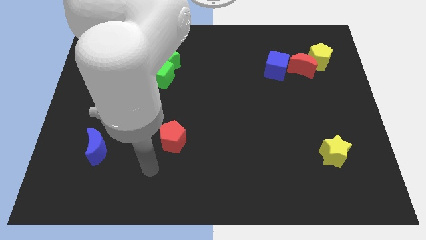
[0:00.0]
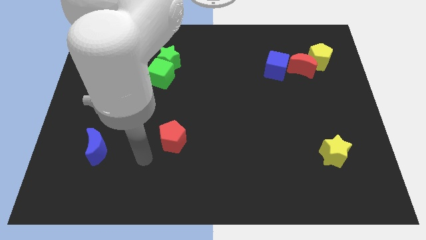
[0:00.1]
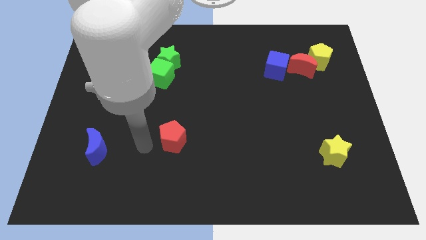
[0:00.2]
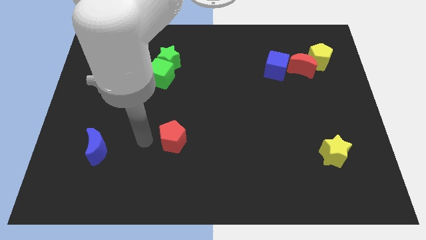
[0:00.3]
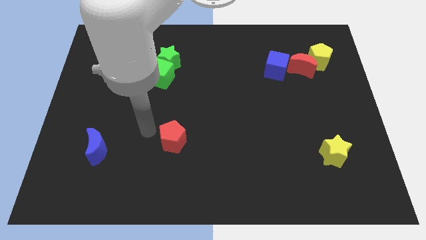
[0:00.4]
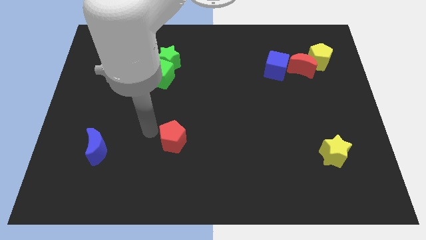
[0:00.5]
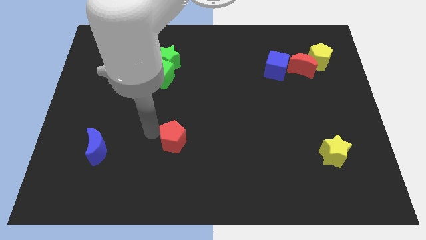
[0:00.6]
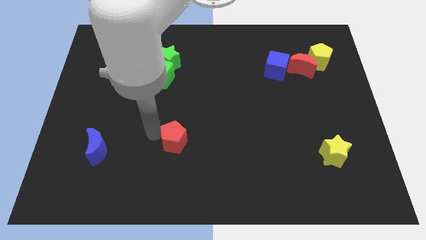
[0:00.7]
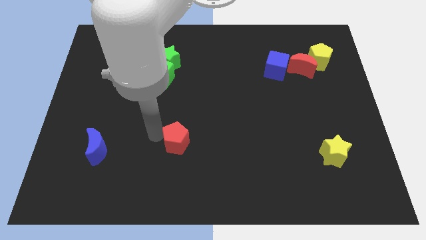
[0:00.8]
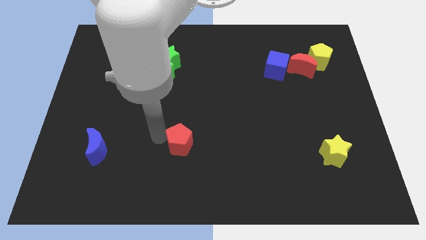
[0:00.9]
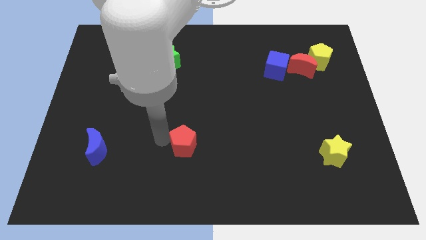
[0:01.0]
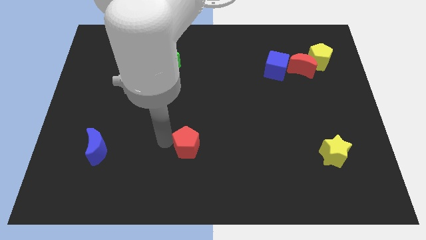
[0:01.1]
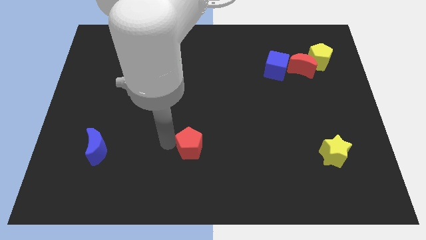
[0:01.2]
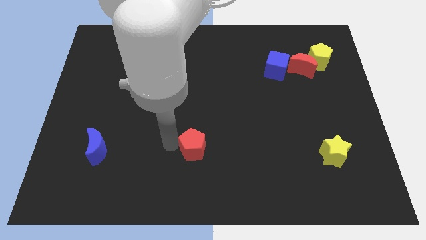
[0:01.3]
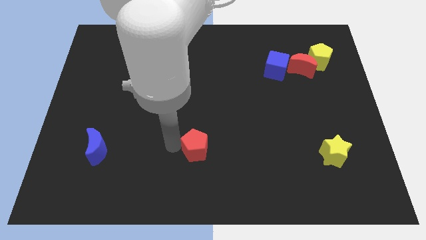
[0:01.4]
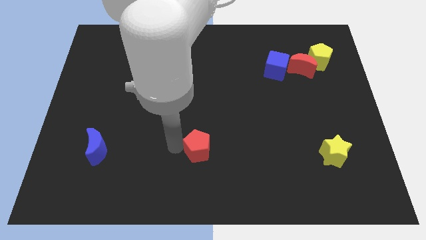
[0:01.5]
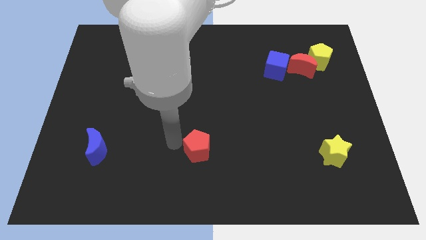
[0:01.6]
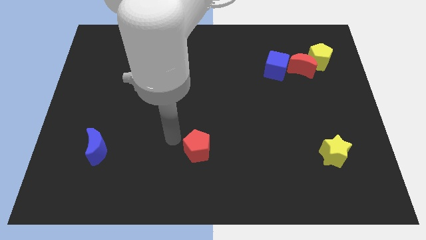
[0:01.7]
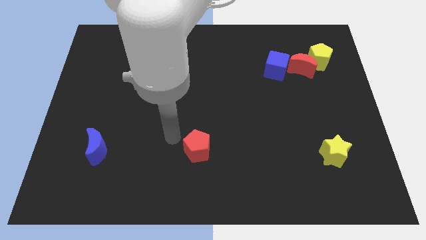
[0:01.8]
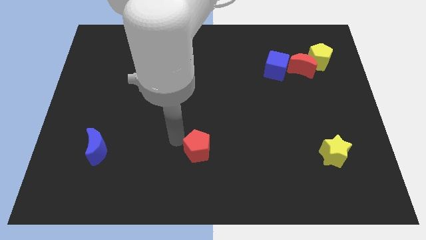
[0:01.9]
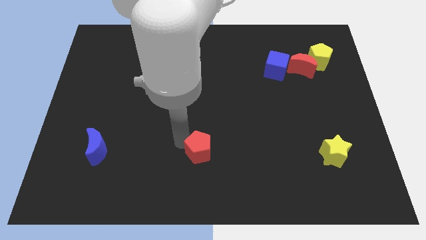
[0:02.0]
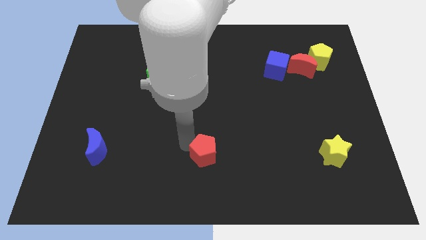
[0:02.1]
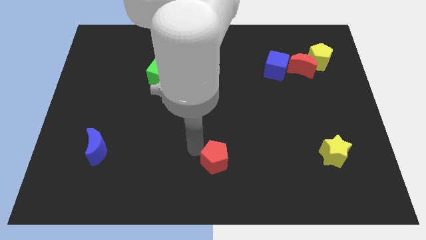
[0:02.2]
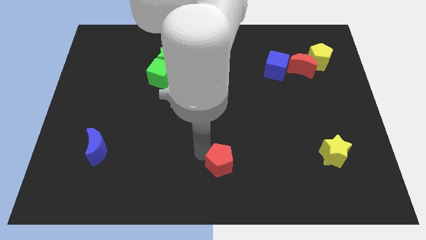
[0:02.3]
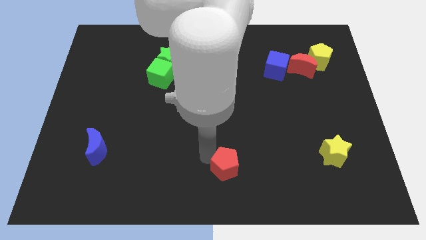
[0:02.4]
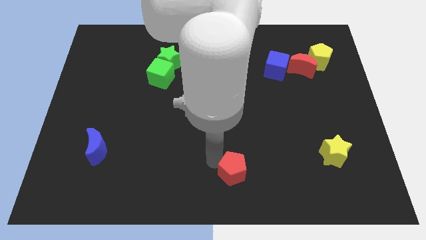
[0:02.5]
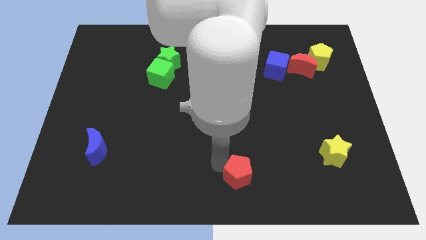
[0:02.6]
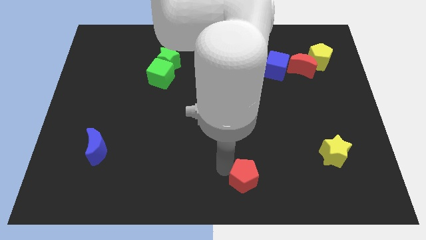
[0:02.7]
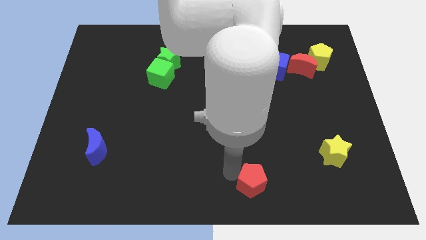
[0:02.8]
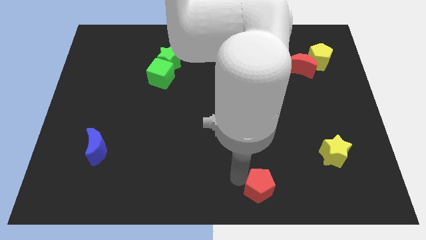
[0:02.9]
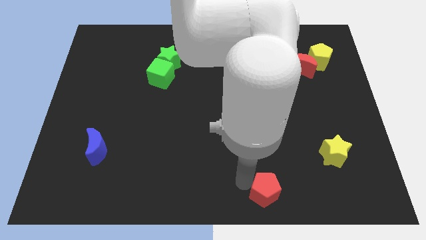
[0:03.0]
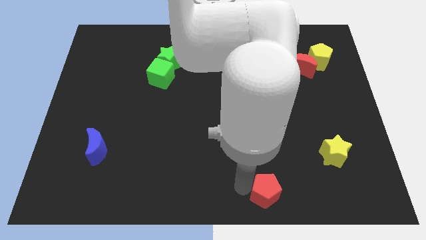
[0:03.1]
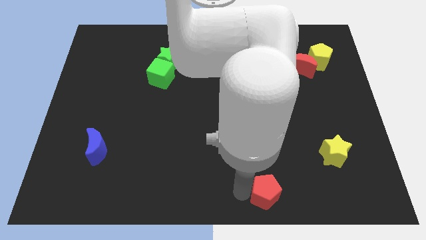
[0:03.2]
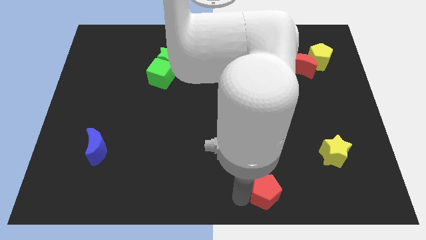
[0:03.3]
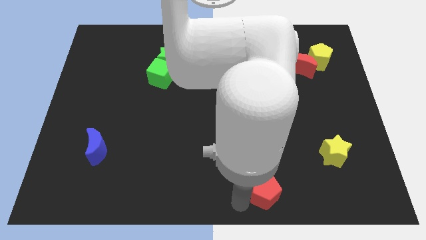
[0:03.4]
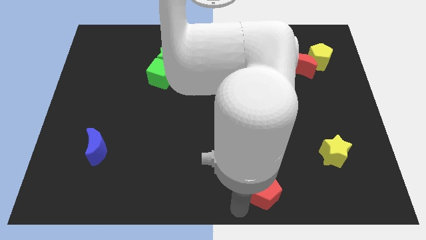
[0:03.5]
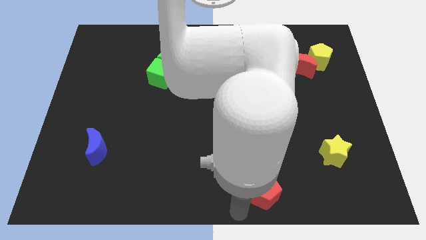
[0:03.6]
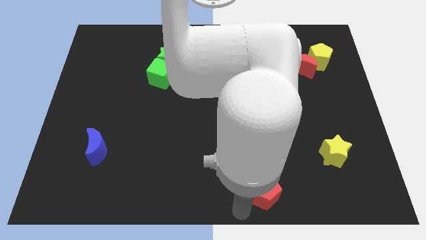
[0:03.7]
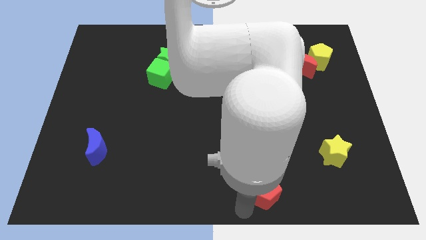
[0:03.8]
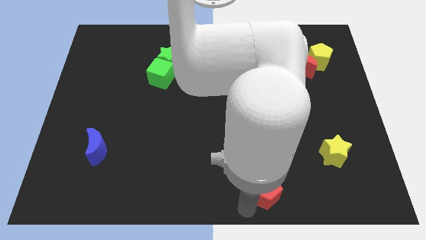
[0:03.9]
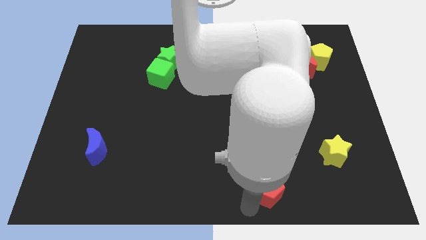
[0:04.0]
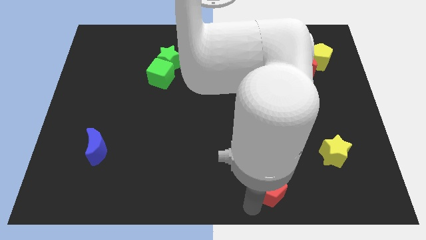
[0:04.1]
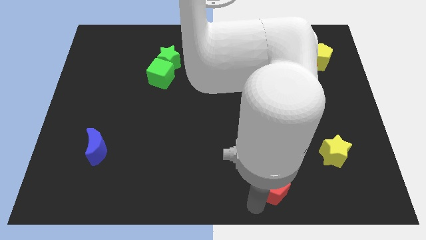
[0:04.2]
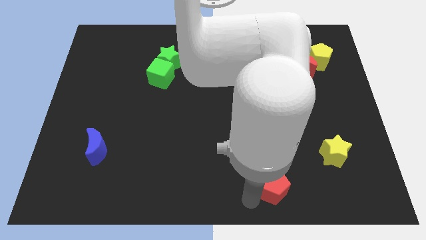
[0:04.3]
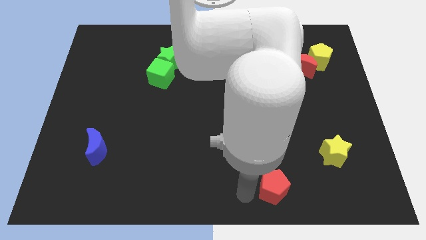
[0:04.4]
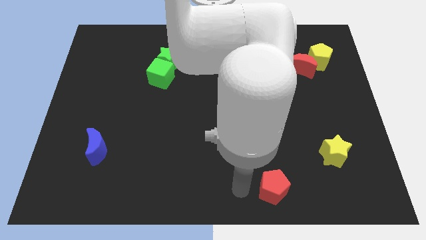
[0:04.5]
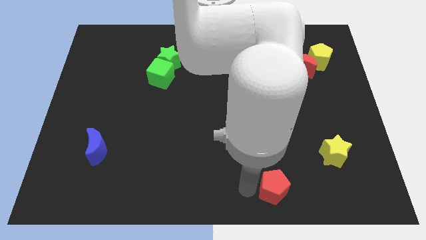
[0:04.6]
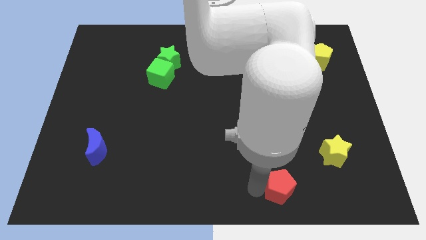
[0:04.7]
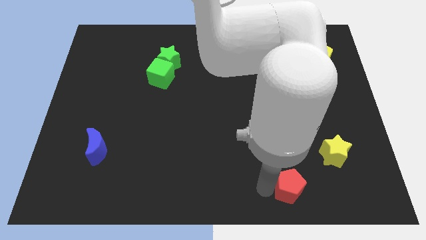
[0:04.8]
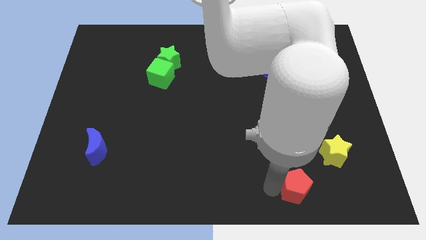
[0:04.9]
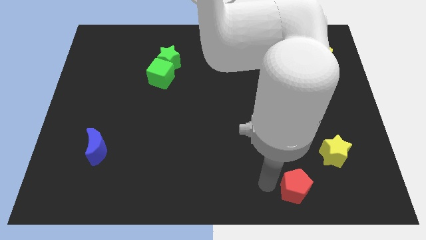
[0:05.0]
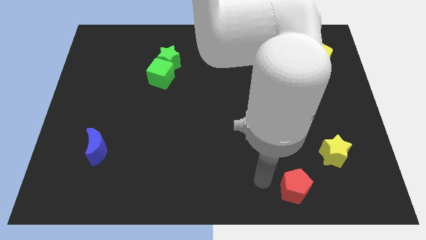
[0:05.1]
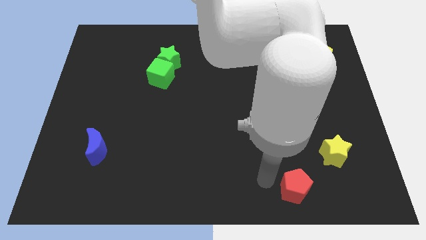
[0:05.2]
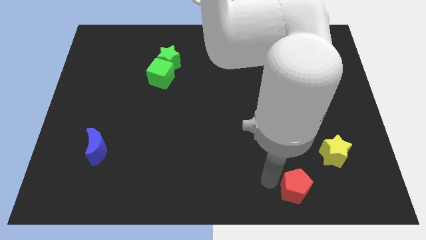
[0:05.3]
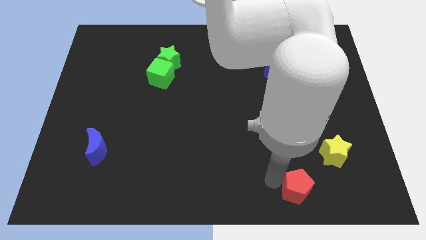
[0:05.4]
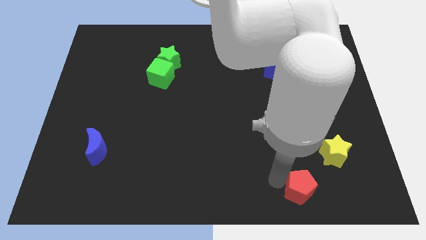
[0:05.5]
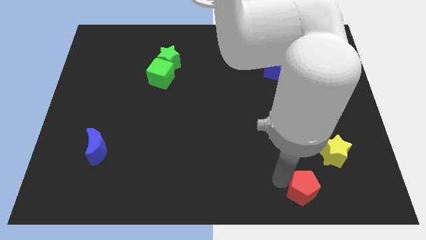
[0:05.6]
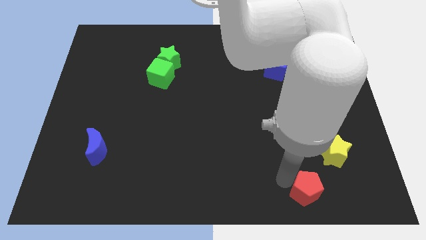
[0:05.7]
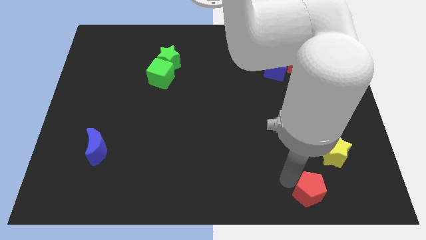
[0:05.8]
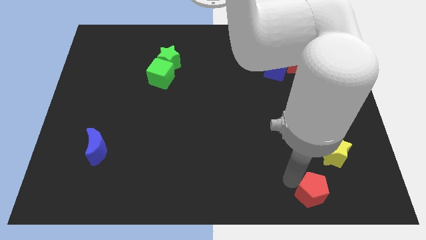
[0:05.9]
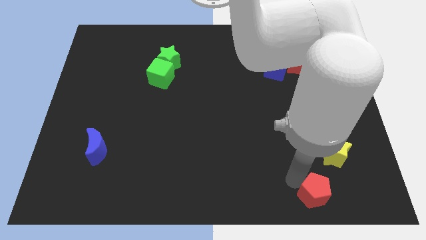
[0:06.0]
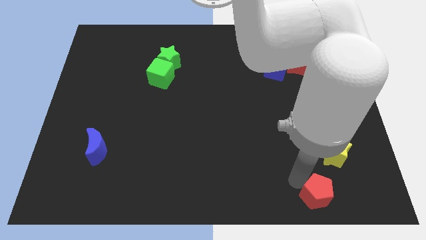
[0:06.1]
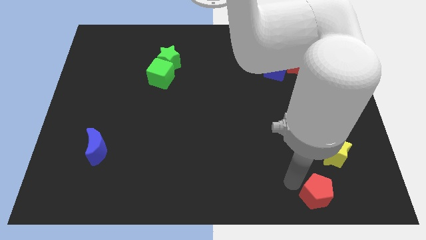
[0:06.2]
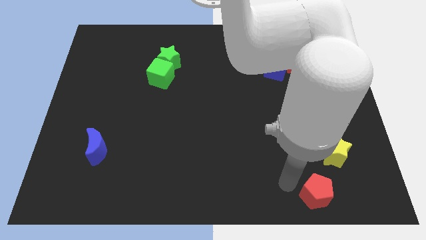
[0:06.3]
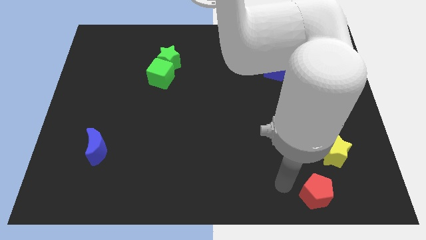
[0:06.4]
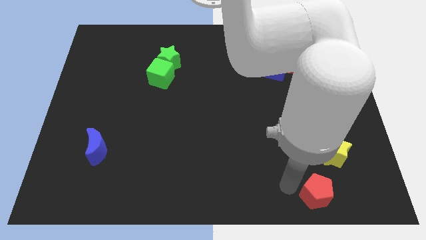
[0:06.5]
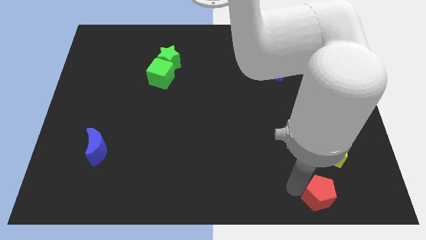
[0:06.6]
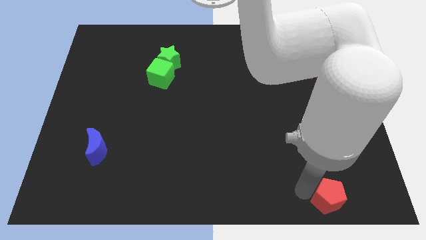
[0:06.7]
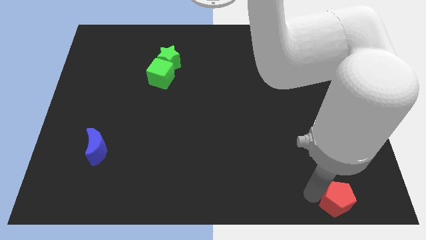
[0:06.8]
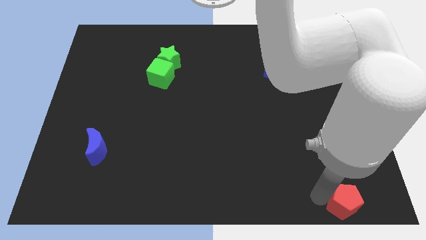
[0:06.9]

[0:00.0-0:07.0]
move the red pentagon to the bottom right
